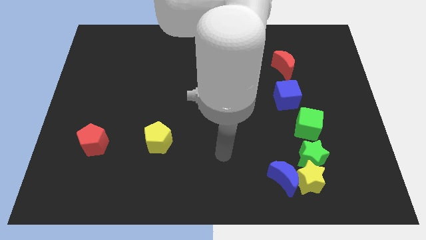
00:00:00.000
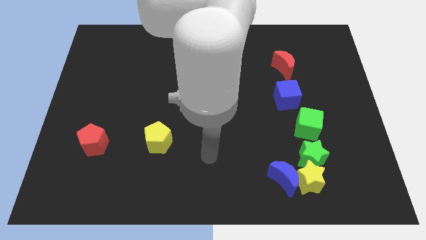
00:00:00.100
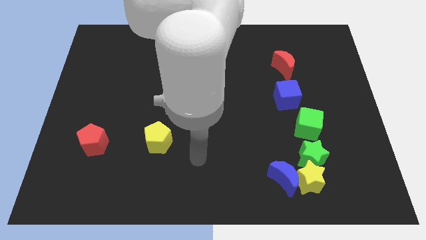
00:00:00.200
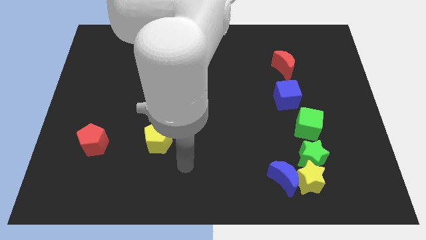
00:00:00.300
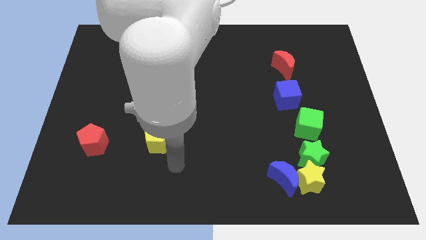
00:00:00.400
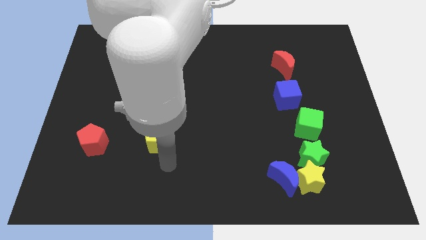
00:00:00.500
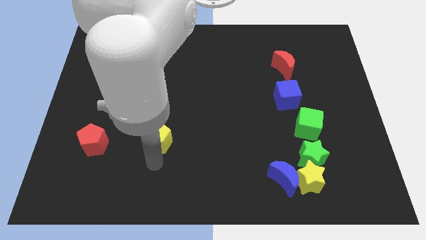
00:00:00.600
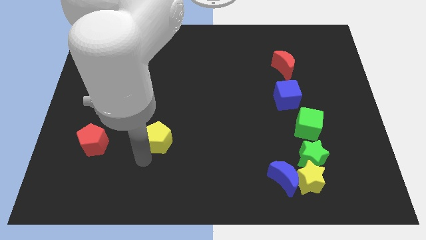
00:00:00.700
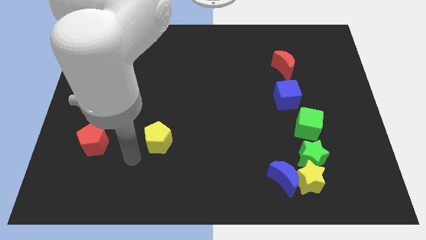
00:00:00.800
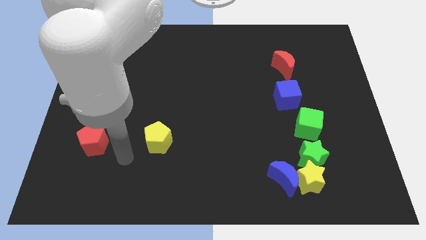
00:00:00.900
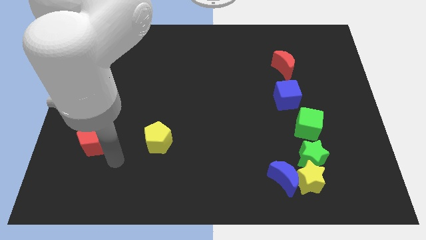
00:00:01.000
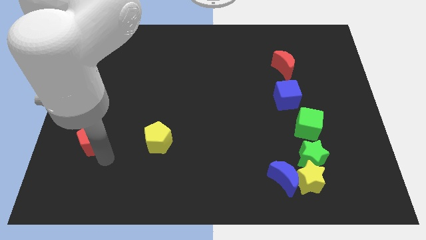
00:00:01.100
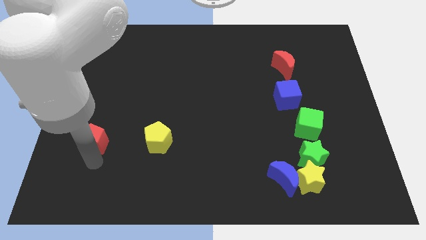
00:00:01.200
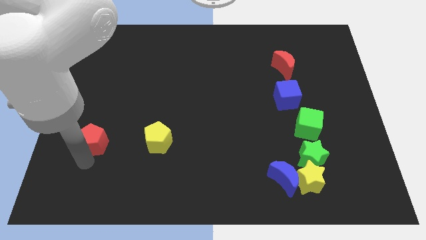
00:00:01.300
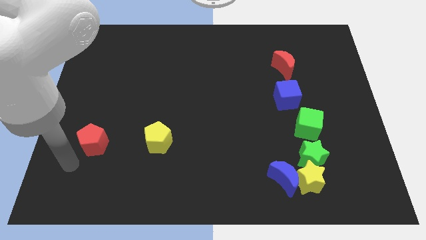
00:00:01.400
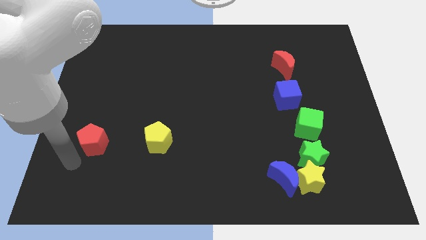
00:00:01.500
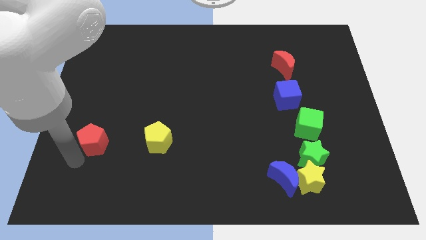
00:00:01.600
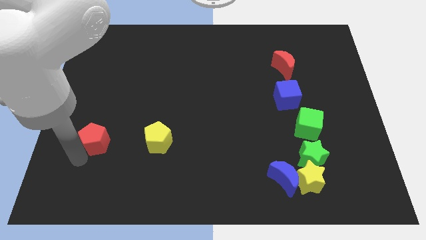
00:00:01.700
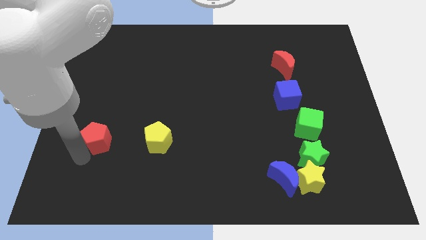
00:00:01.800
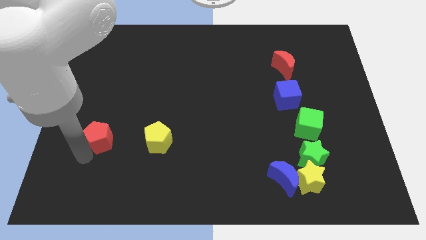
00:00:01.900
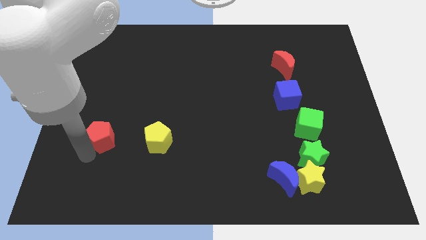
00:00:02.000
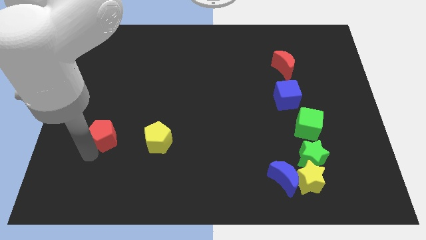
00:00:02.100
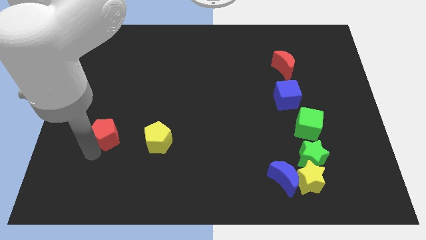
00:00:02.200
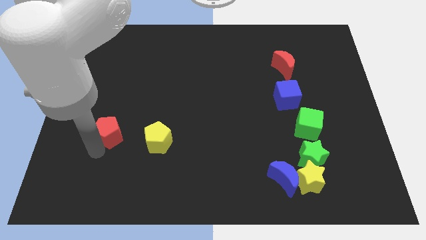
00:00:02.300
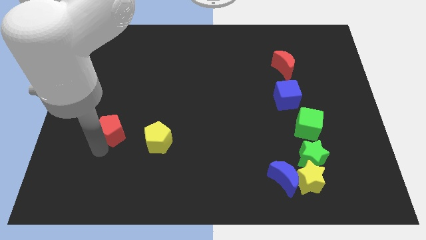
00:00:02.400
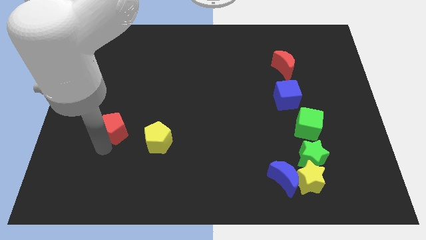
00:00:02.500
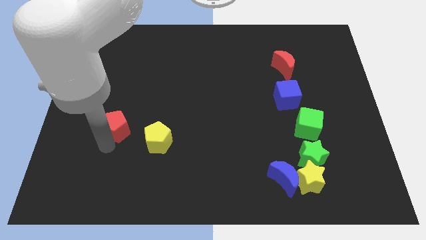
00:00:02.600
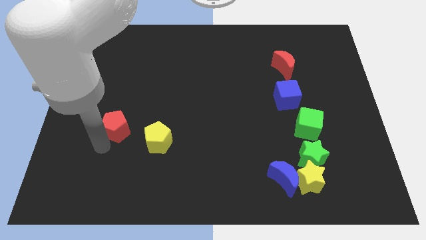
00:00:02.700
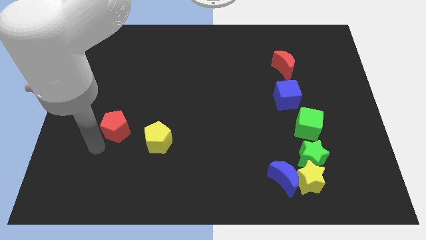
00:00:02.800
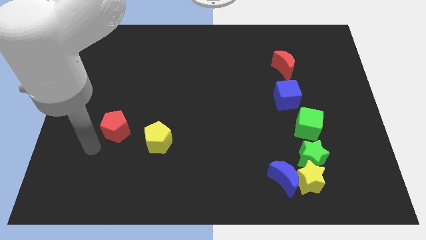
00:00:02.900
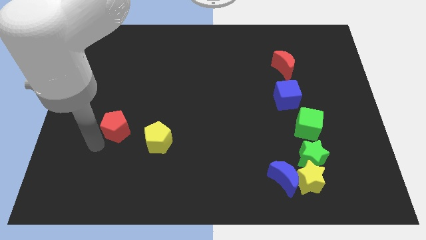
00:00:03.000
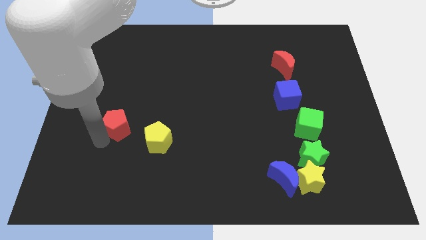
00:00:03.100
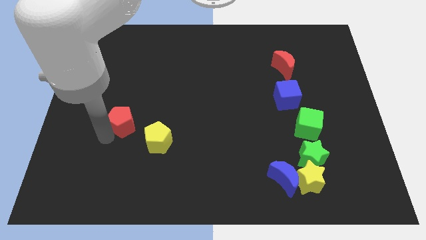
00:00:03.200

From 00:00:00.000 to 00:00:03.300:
push the red pentagon up and then to the right a bit

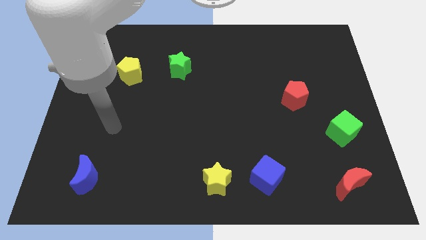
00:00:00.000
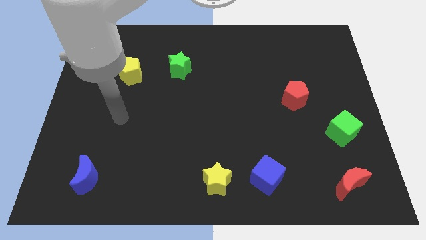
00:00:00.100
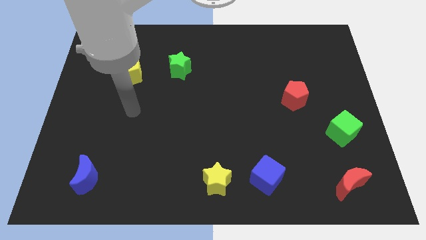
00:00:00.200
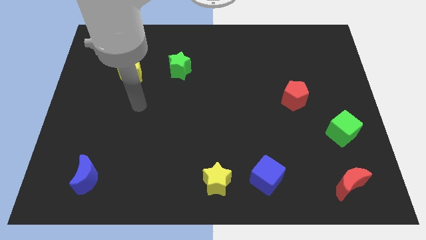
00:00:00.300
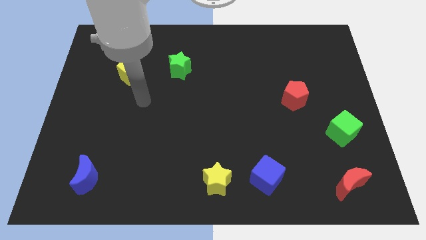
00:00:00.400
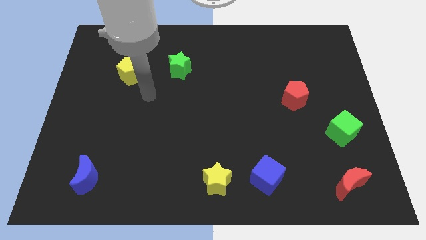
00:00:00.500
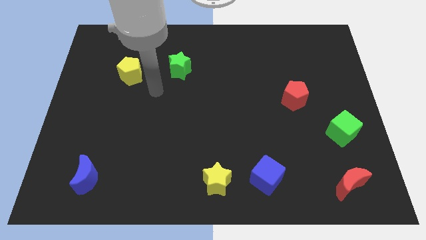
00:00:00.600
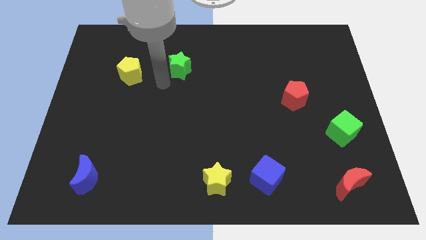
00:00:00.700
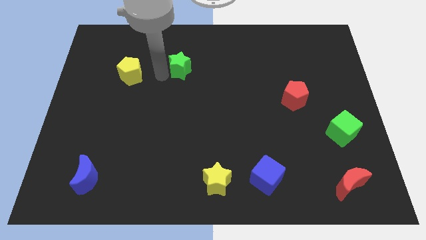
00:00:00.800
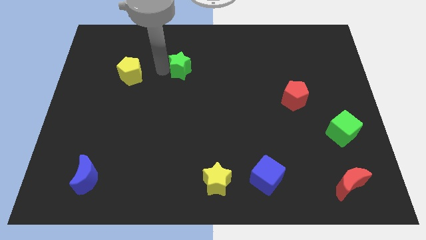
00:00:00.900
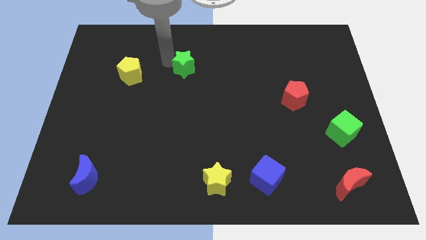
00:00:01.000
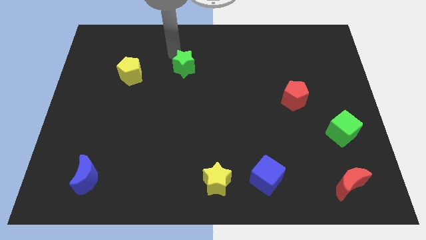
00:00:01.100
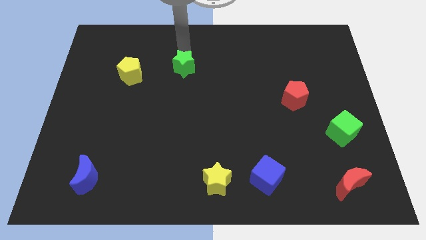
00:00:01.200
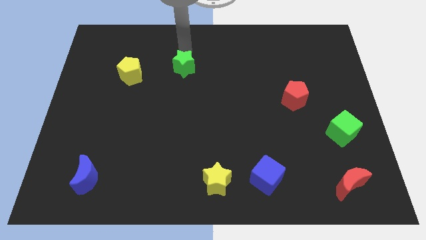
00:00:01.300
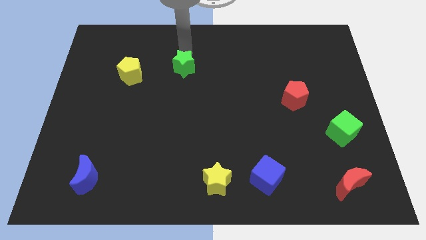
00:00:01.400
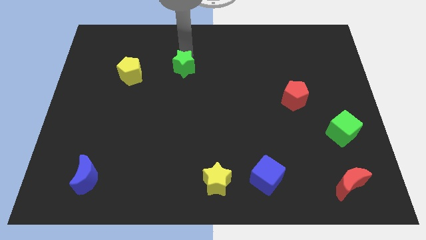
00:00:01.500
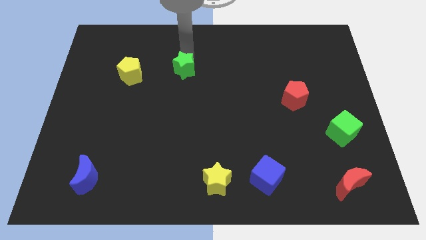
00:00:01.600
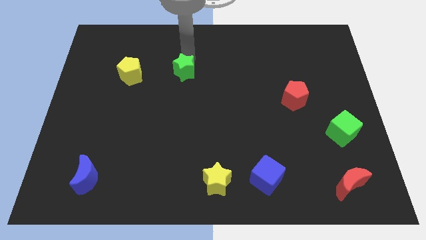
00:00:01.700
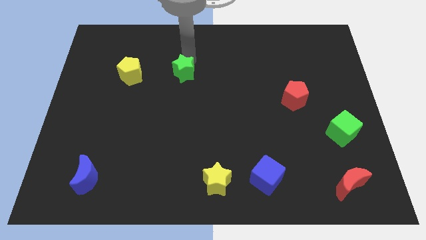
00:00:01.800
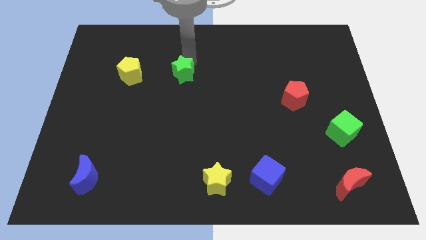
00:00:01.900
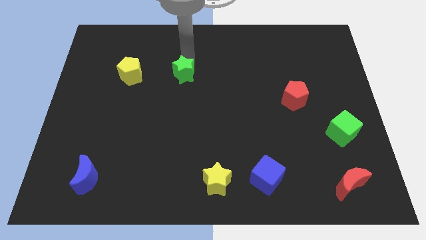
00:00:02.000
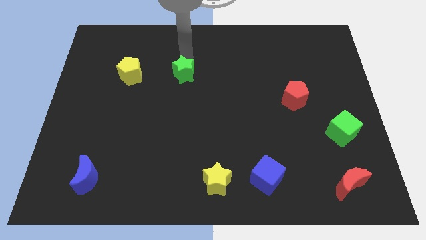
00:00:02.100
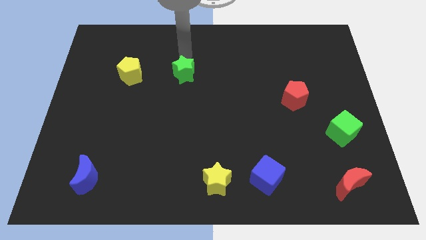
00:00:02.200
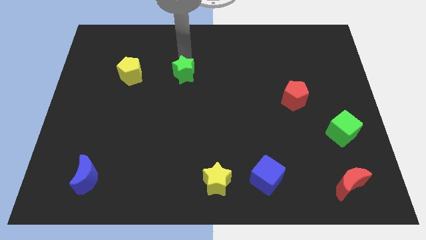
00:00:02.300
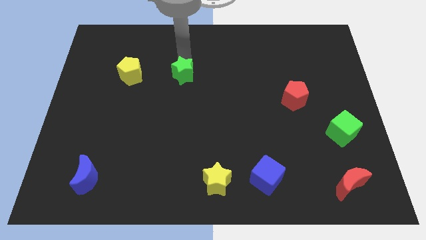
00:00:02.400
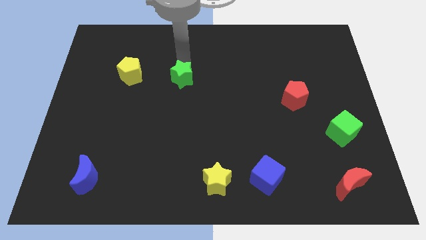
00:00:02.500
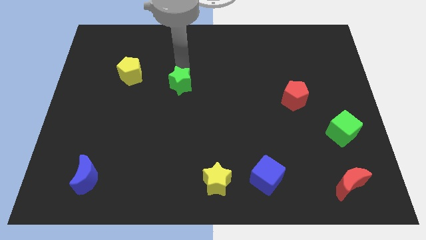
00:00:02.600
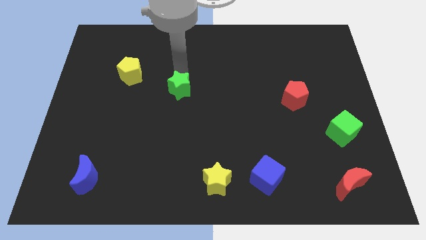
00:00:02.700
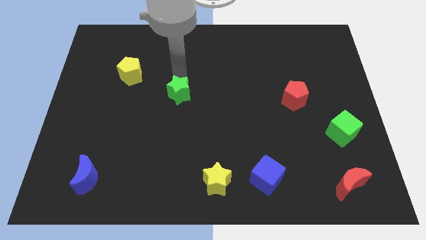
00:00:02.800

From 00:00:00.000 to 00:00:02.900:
push the green star downwards somewhat

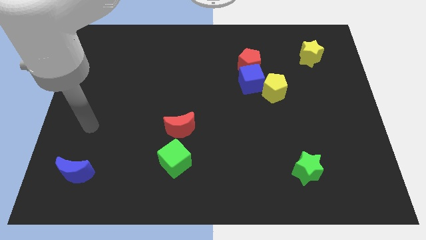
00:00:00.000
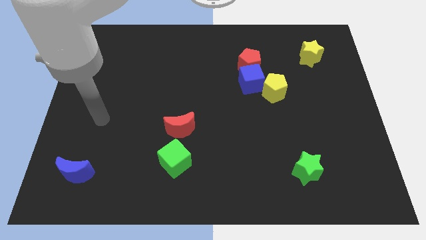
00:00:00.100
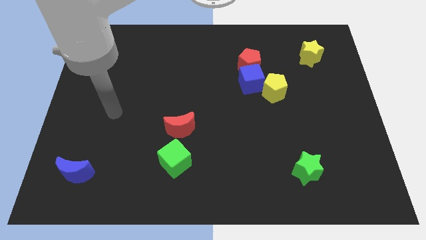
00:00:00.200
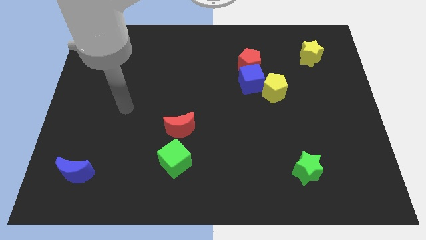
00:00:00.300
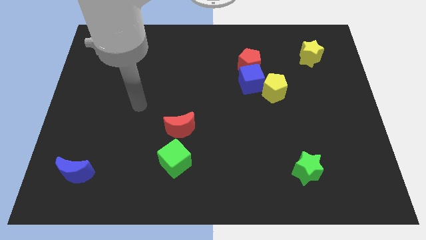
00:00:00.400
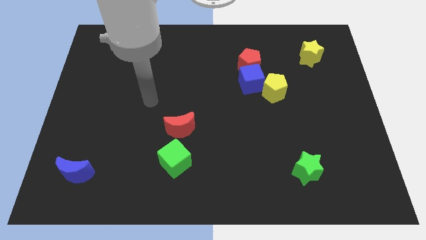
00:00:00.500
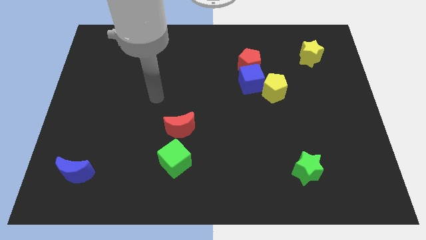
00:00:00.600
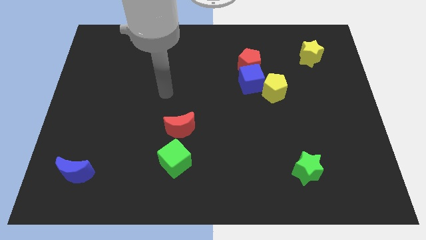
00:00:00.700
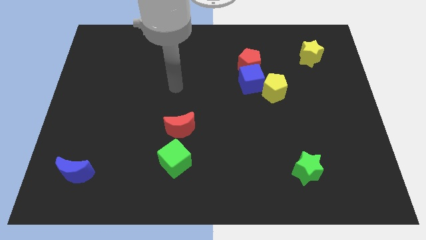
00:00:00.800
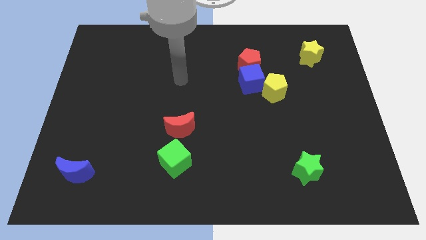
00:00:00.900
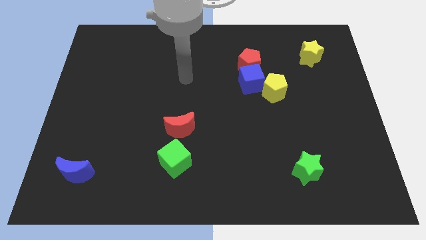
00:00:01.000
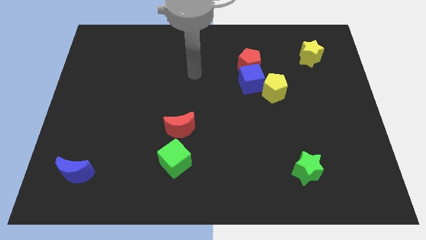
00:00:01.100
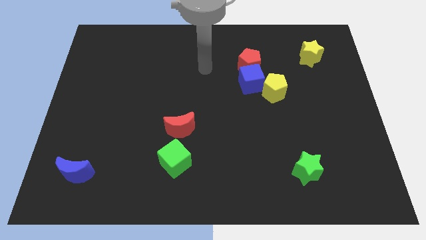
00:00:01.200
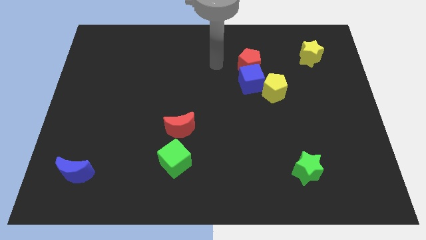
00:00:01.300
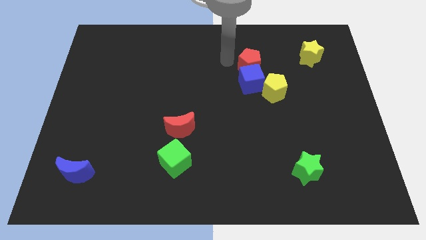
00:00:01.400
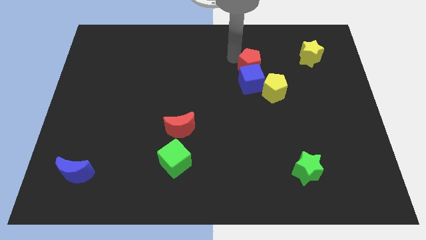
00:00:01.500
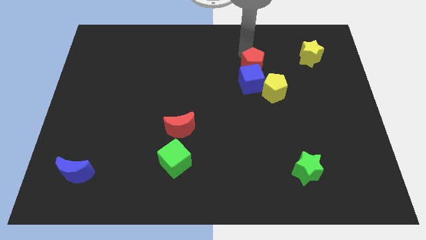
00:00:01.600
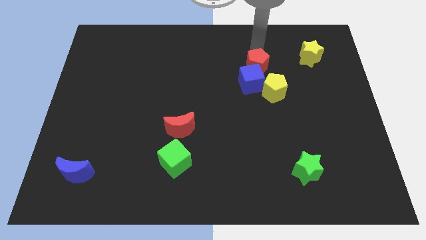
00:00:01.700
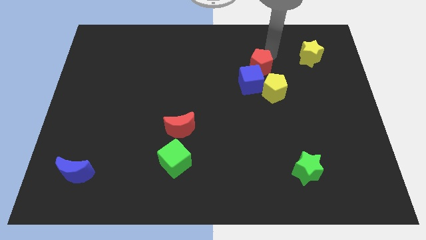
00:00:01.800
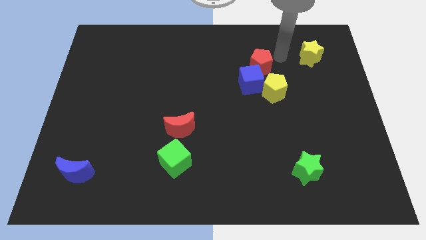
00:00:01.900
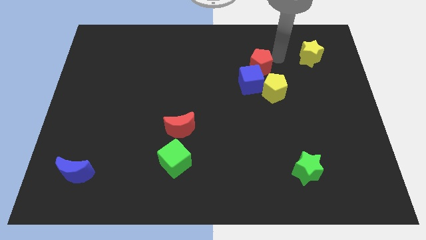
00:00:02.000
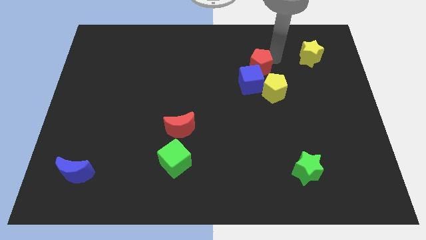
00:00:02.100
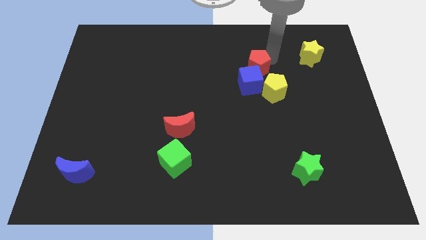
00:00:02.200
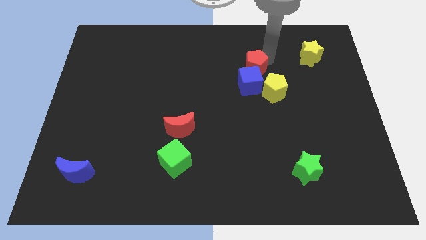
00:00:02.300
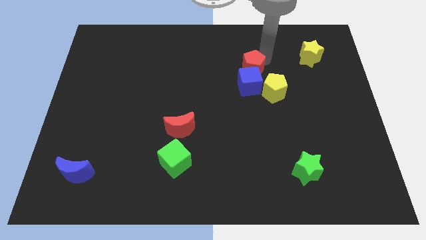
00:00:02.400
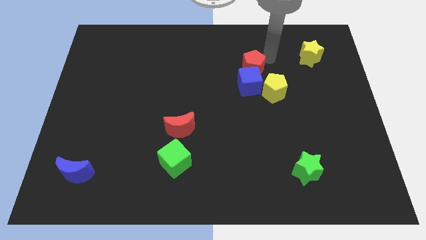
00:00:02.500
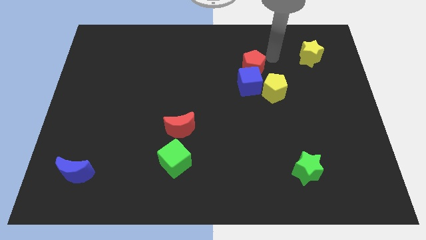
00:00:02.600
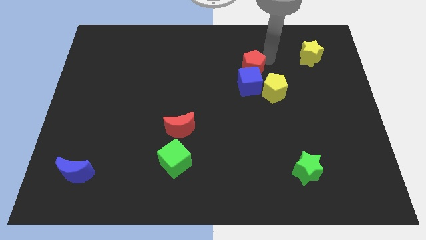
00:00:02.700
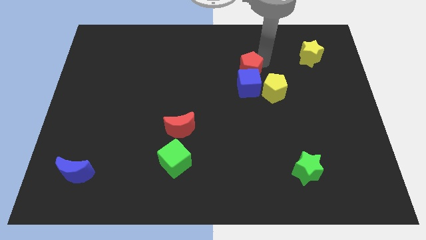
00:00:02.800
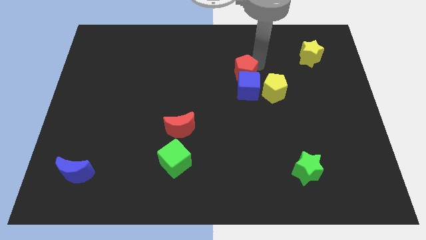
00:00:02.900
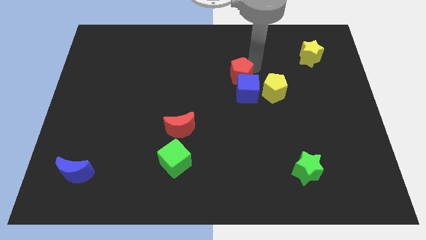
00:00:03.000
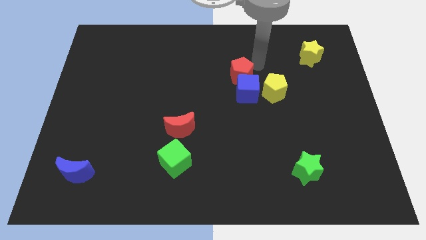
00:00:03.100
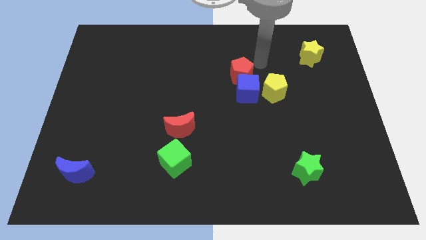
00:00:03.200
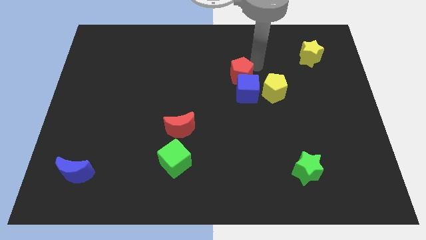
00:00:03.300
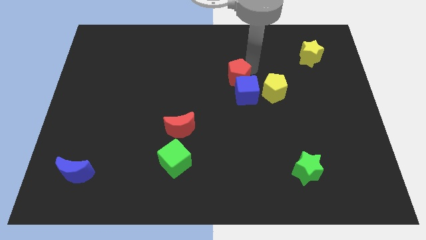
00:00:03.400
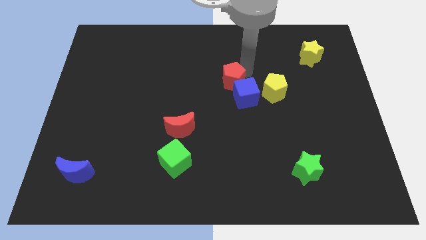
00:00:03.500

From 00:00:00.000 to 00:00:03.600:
move the red pentagon down and left a bit
